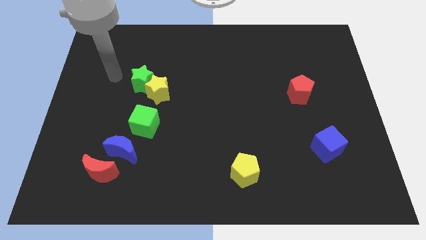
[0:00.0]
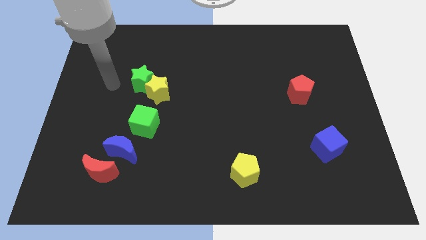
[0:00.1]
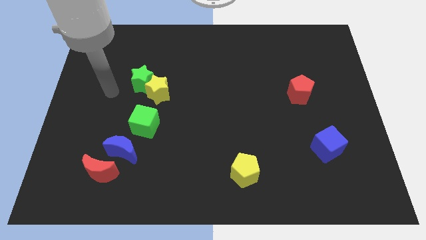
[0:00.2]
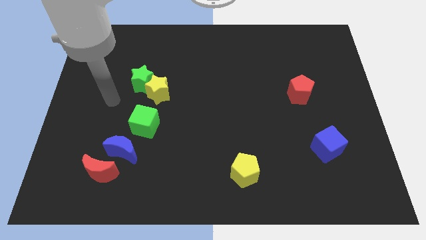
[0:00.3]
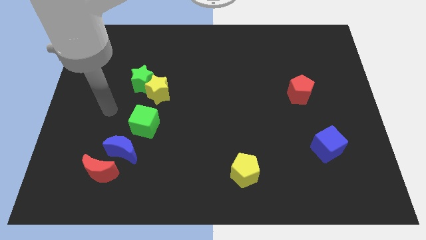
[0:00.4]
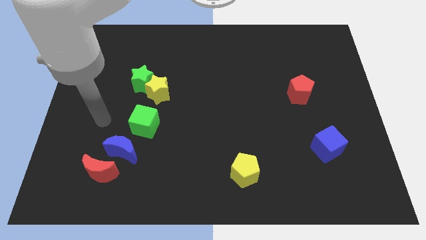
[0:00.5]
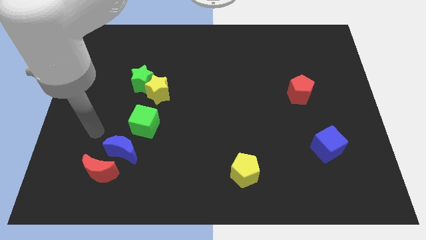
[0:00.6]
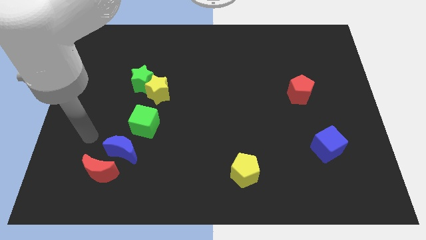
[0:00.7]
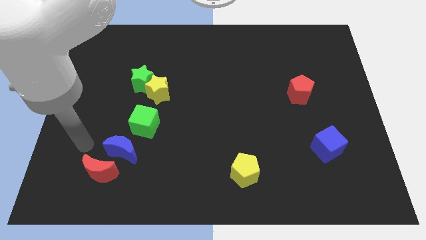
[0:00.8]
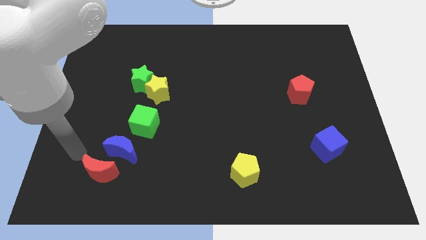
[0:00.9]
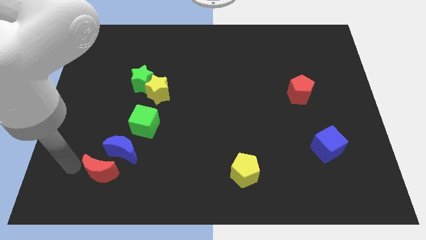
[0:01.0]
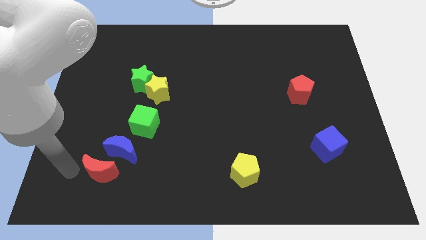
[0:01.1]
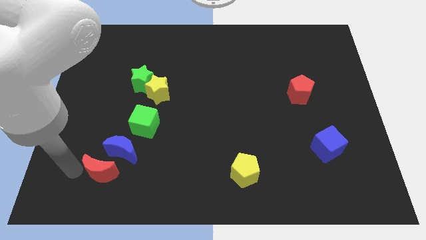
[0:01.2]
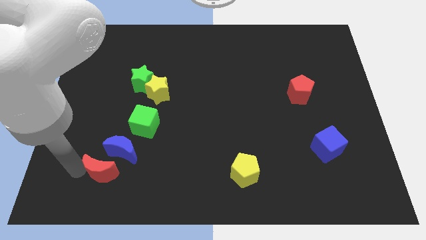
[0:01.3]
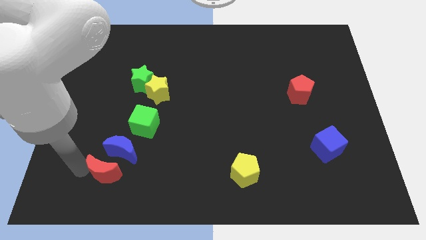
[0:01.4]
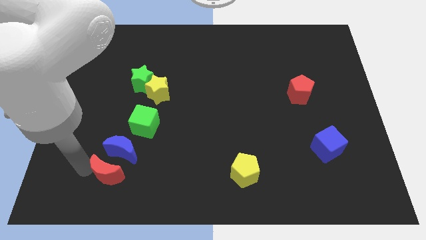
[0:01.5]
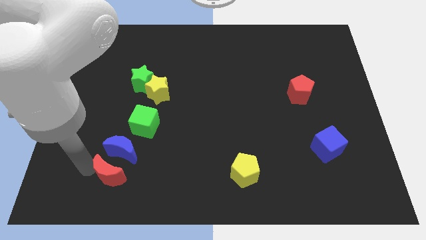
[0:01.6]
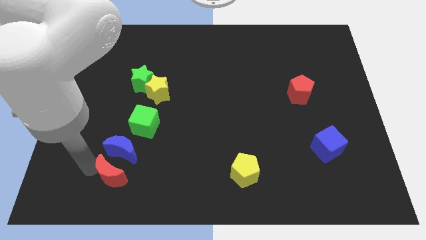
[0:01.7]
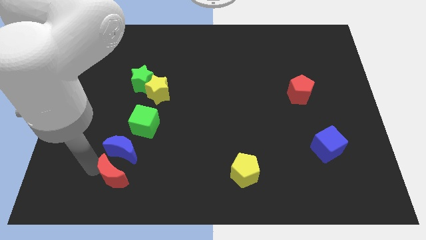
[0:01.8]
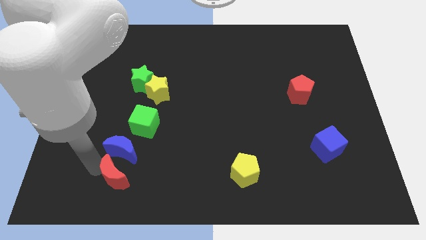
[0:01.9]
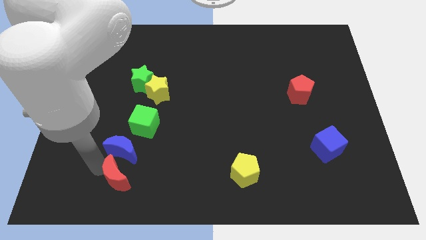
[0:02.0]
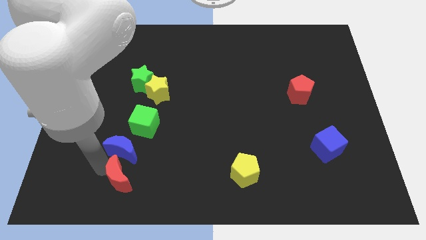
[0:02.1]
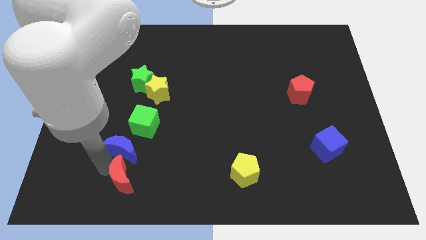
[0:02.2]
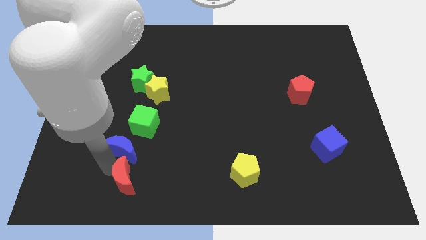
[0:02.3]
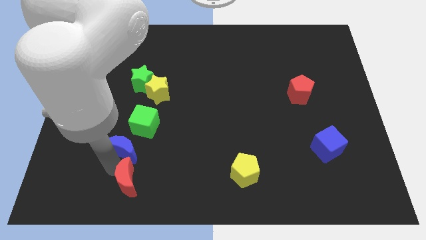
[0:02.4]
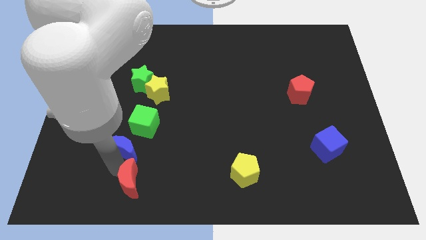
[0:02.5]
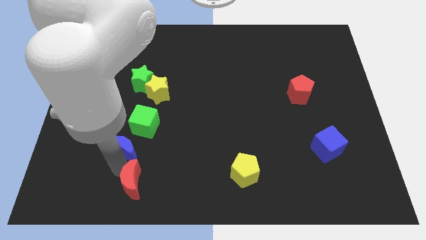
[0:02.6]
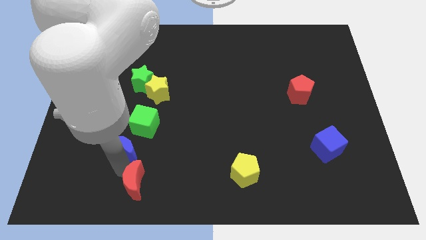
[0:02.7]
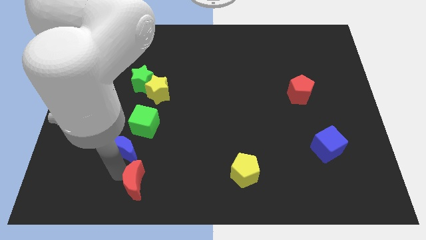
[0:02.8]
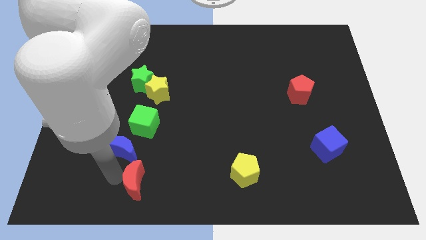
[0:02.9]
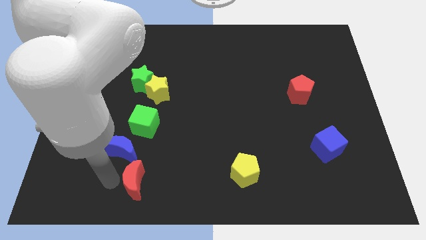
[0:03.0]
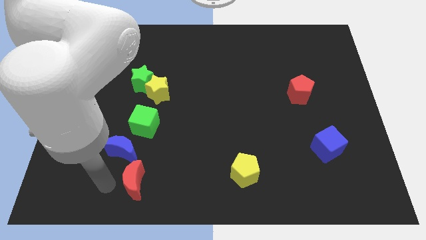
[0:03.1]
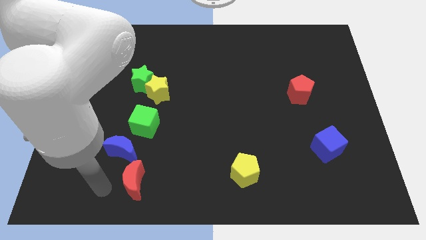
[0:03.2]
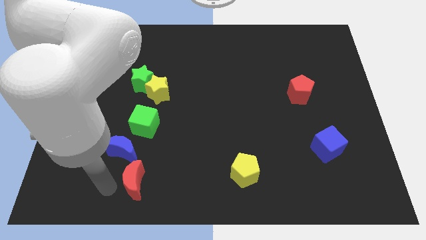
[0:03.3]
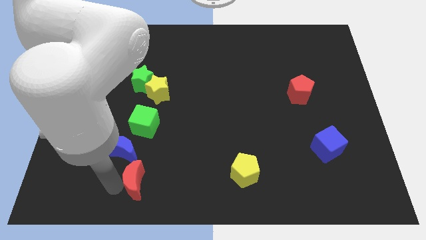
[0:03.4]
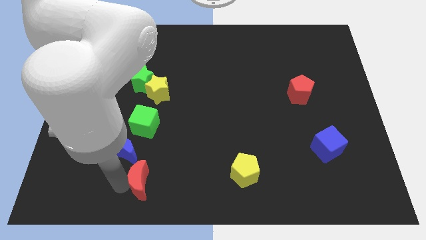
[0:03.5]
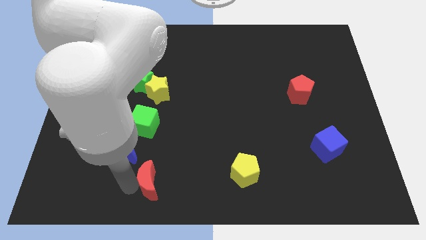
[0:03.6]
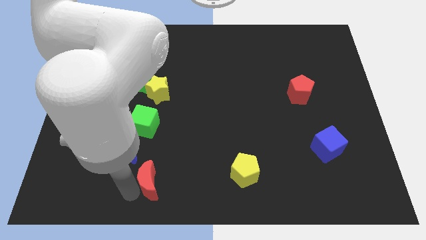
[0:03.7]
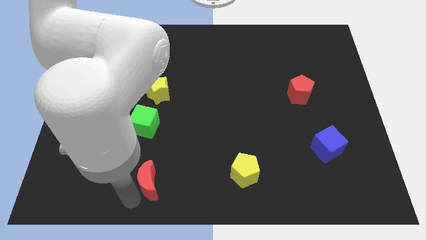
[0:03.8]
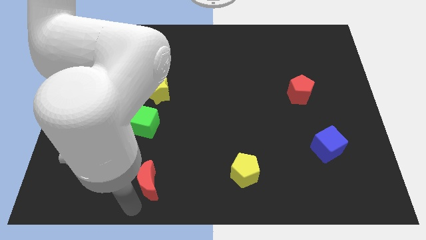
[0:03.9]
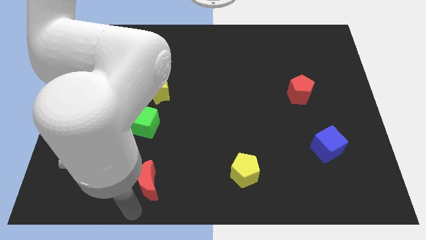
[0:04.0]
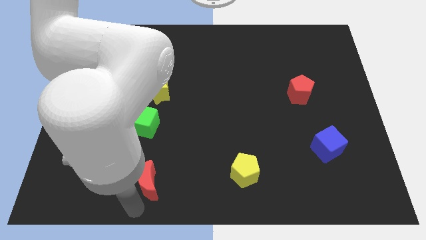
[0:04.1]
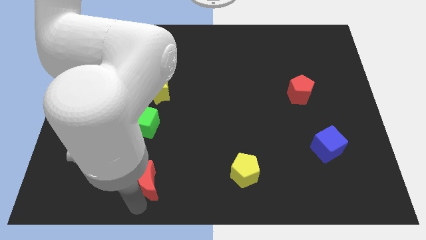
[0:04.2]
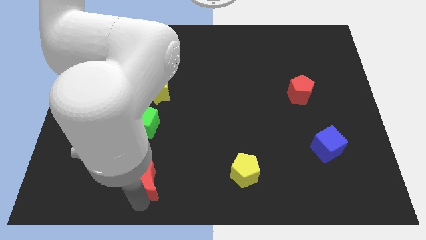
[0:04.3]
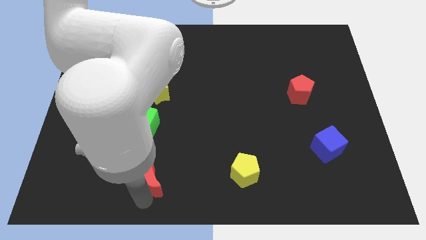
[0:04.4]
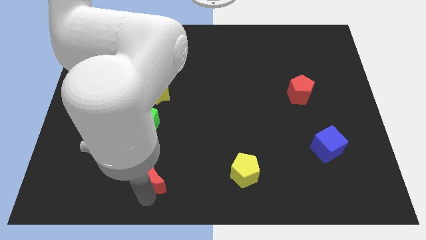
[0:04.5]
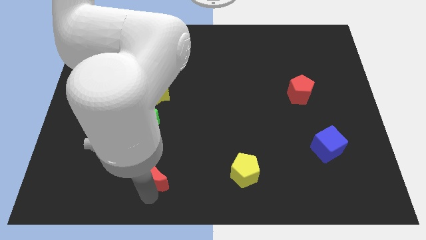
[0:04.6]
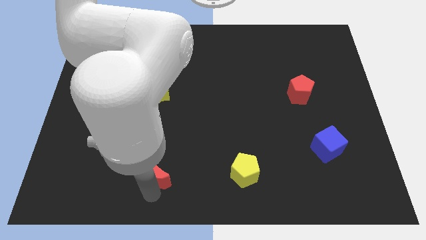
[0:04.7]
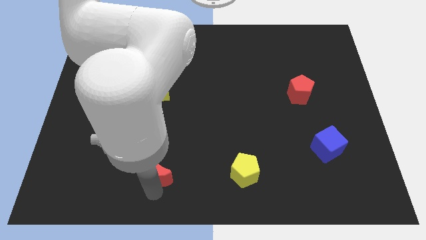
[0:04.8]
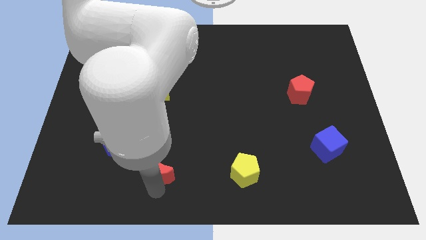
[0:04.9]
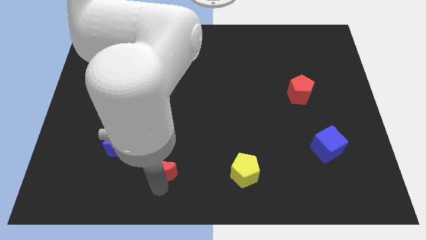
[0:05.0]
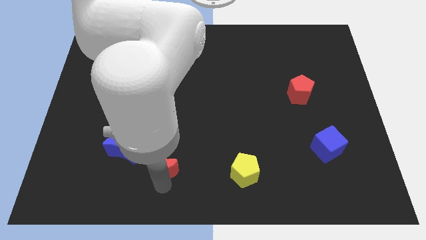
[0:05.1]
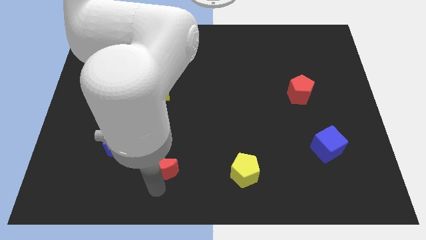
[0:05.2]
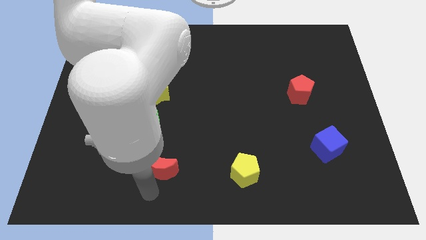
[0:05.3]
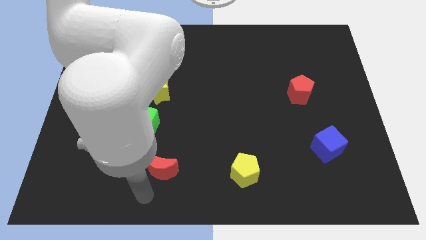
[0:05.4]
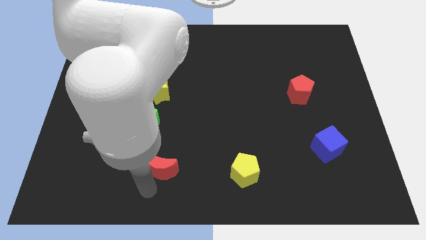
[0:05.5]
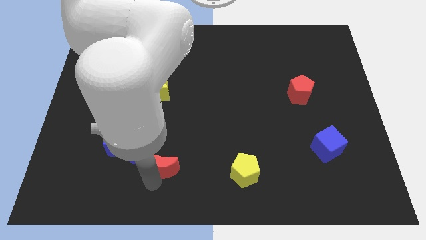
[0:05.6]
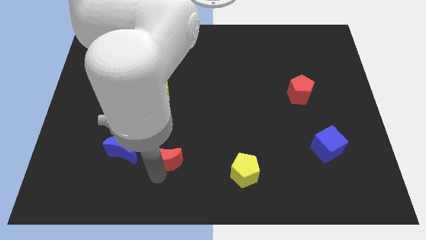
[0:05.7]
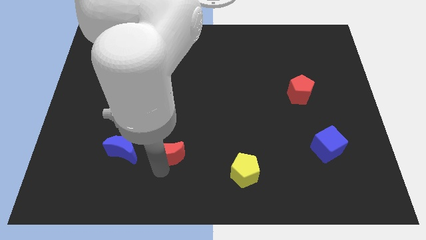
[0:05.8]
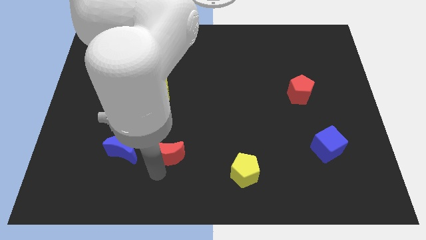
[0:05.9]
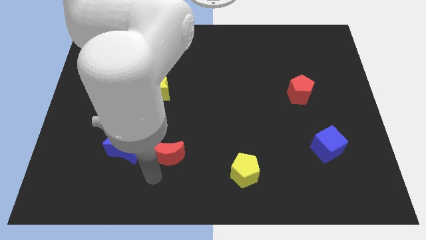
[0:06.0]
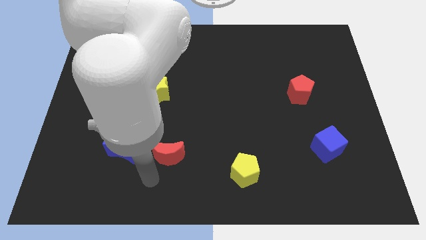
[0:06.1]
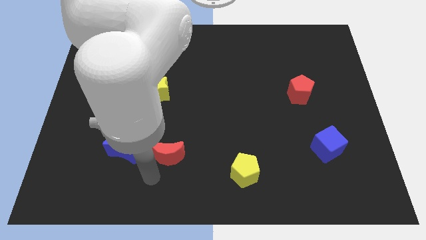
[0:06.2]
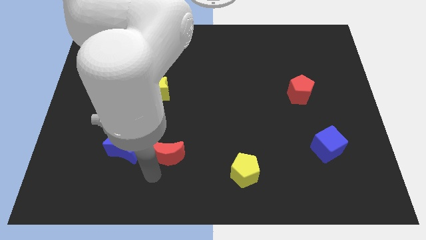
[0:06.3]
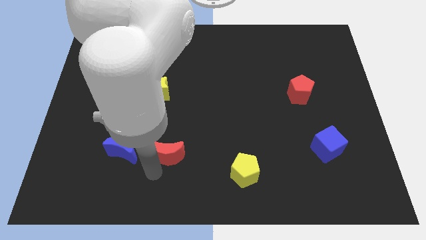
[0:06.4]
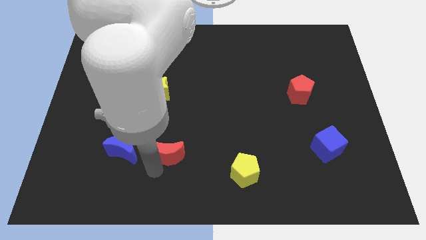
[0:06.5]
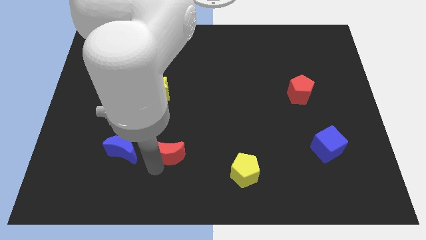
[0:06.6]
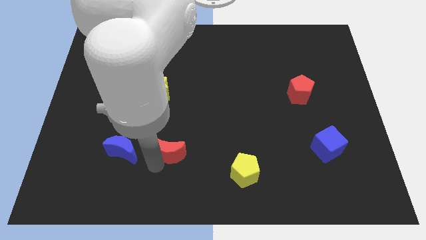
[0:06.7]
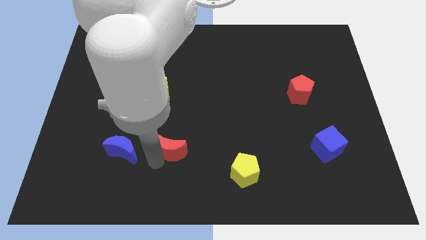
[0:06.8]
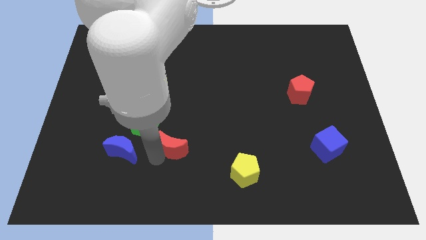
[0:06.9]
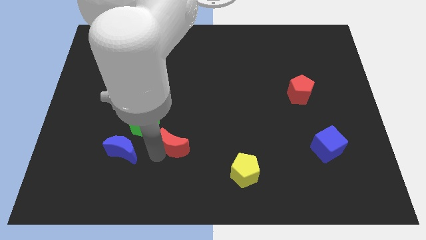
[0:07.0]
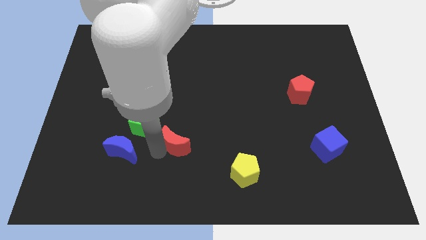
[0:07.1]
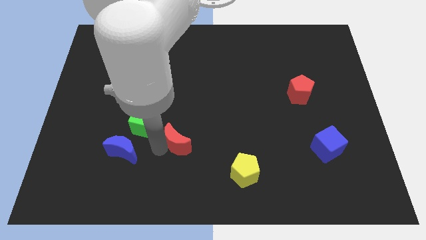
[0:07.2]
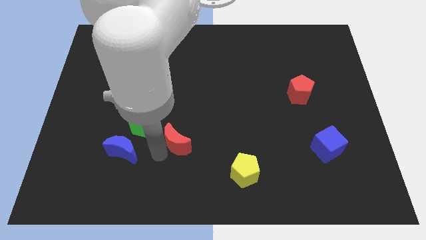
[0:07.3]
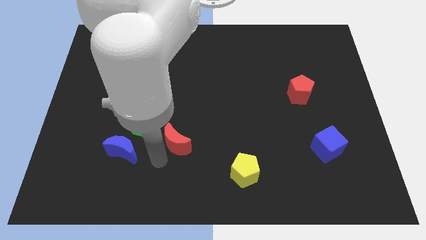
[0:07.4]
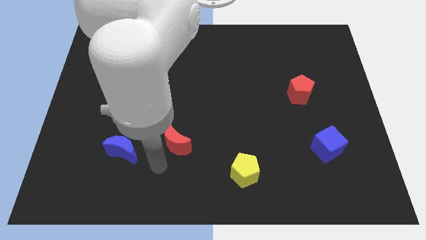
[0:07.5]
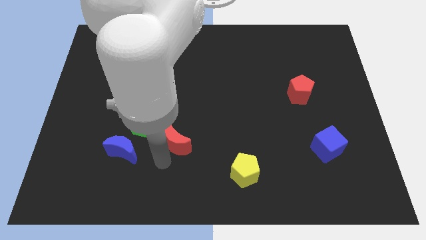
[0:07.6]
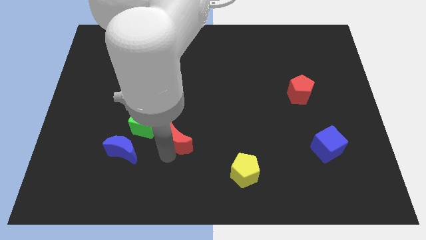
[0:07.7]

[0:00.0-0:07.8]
put the red moon right of the green cube

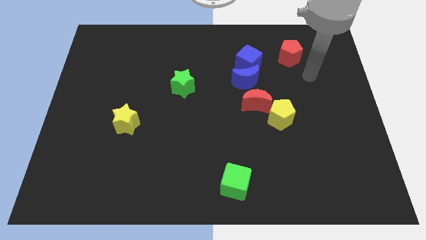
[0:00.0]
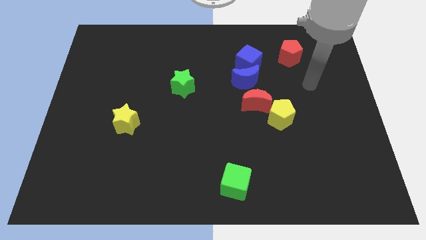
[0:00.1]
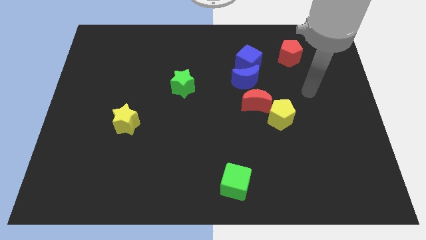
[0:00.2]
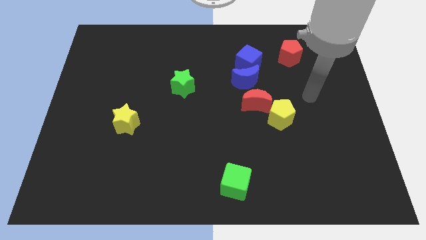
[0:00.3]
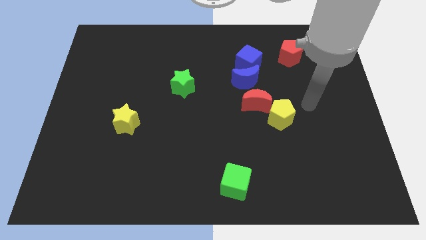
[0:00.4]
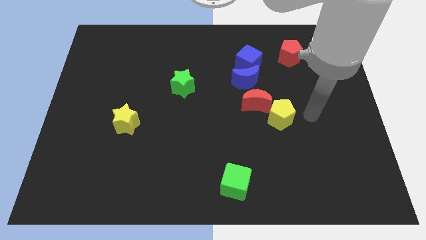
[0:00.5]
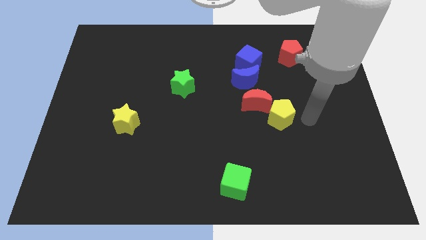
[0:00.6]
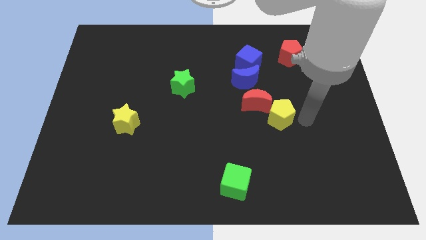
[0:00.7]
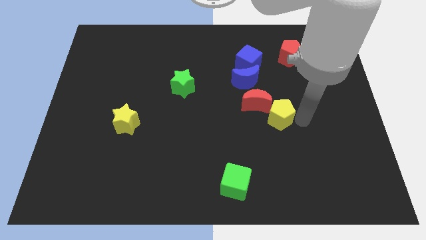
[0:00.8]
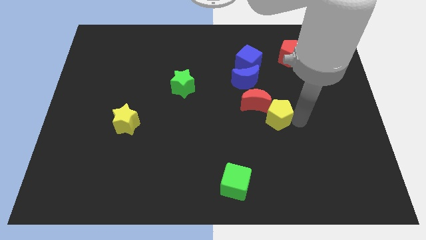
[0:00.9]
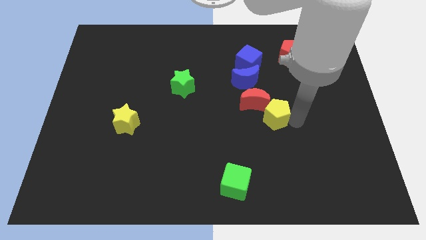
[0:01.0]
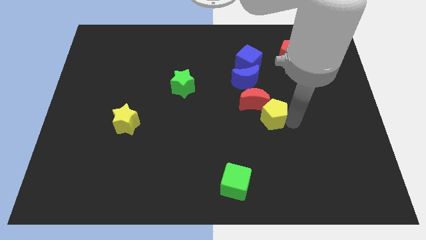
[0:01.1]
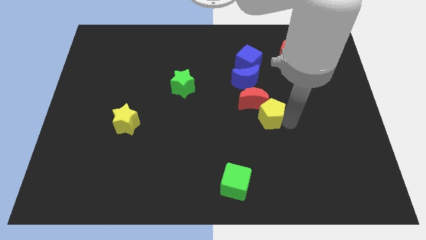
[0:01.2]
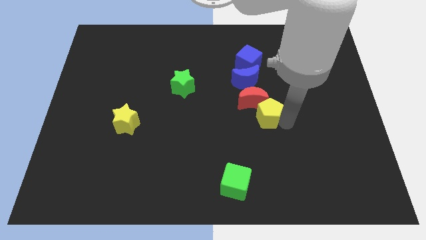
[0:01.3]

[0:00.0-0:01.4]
push the yellow pentagon to the bottom of the blue moon
